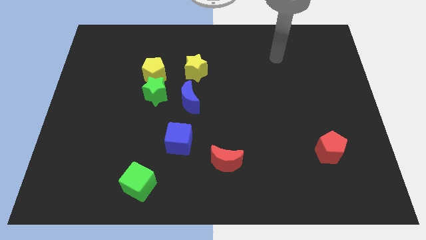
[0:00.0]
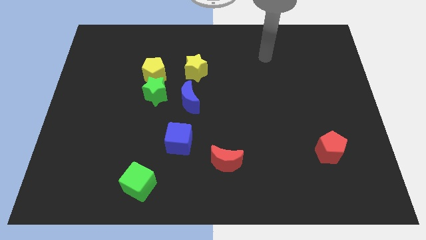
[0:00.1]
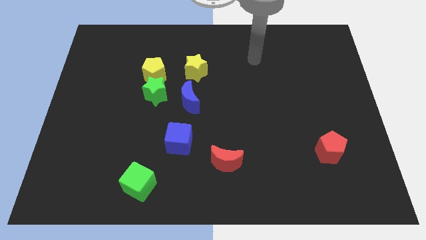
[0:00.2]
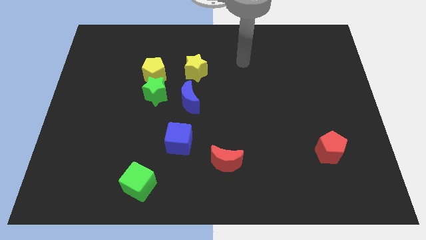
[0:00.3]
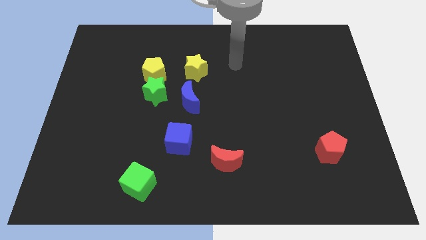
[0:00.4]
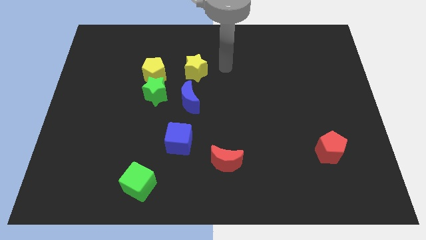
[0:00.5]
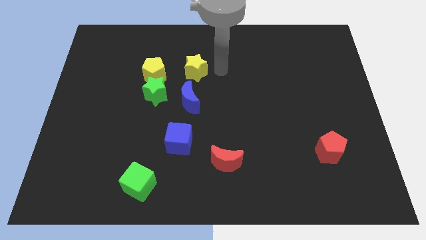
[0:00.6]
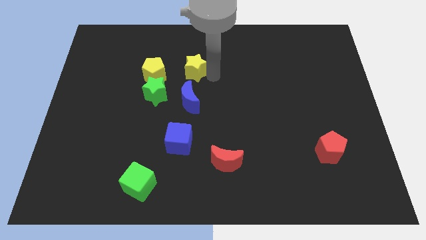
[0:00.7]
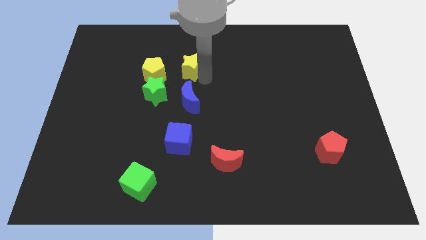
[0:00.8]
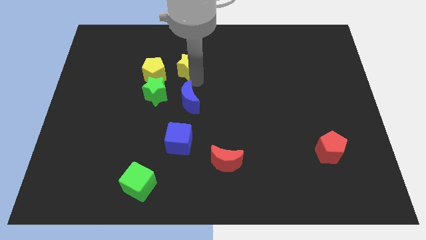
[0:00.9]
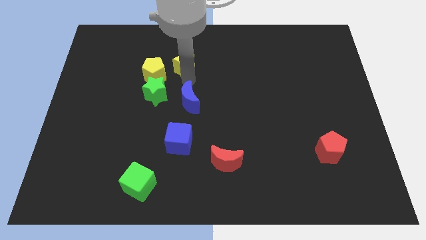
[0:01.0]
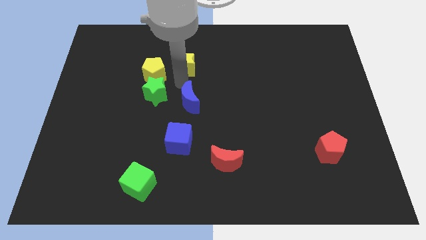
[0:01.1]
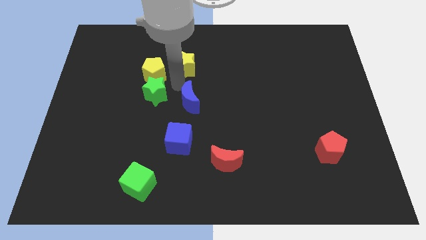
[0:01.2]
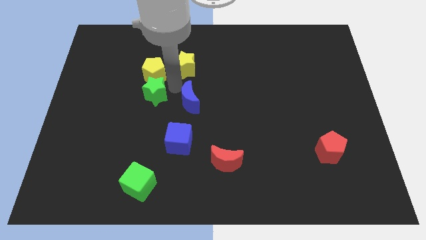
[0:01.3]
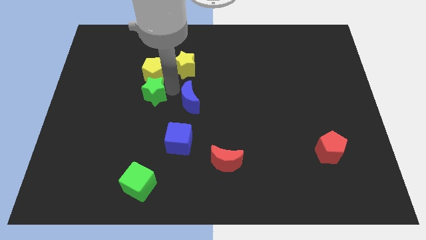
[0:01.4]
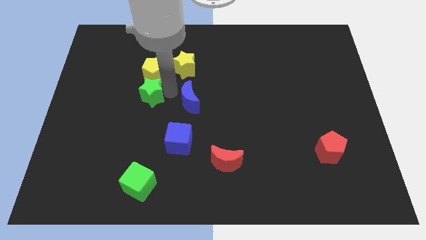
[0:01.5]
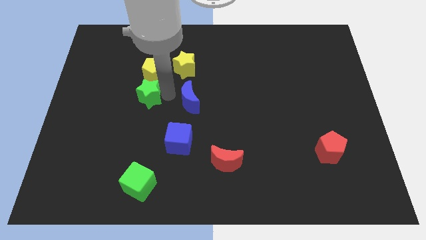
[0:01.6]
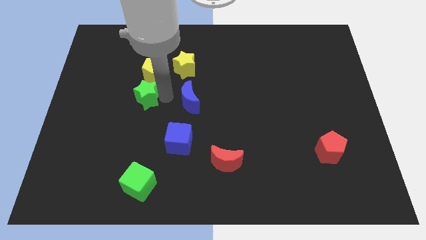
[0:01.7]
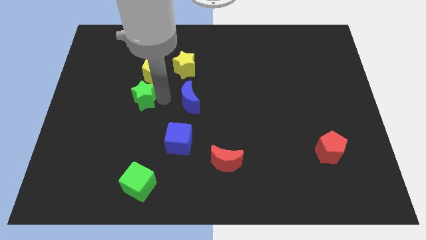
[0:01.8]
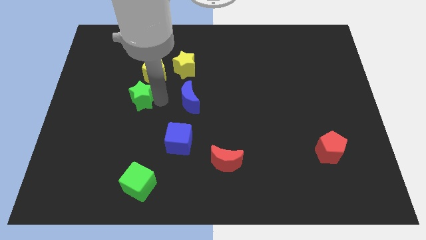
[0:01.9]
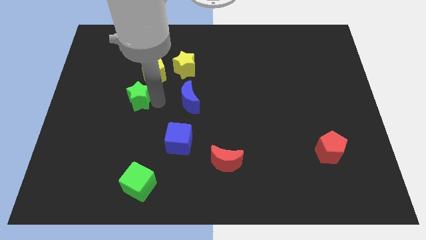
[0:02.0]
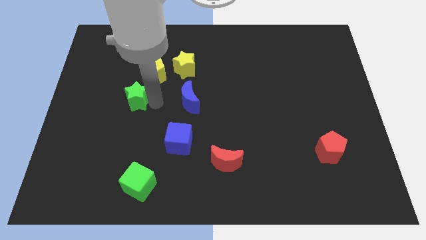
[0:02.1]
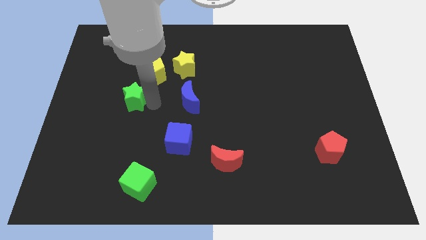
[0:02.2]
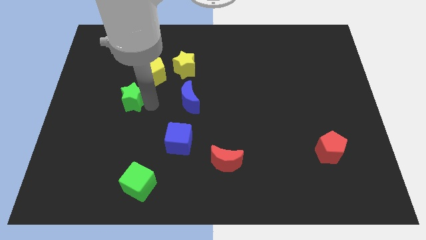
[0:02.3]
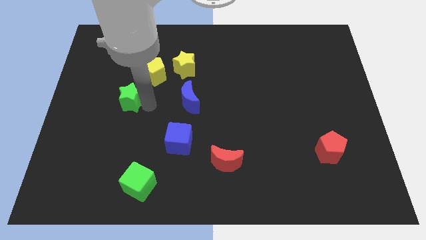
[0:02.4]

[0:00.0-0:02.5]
pull the green star apart from the yellow pentagon and blue moon

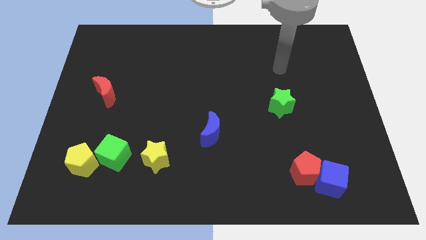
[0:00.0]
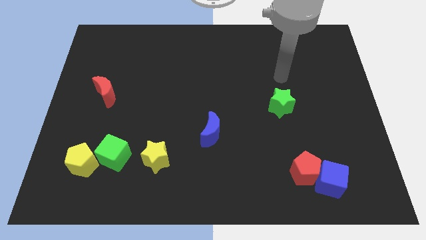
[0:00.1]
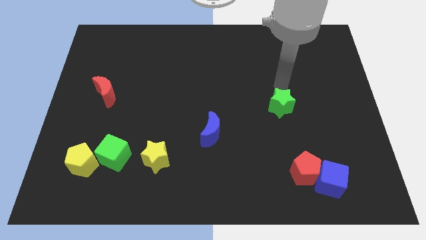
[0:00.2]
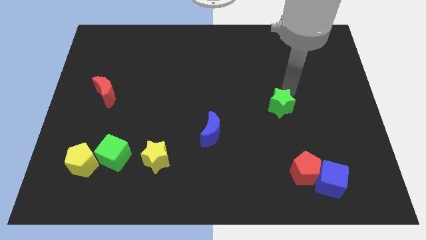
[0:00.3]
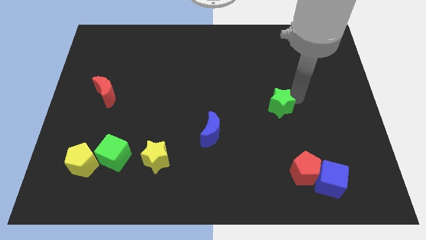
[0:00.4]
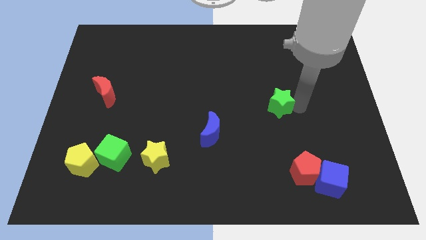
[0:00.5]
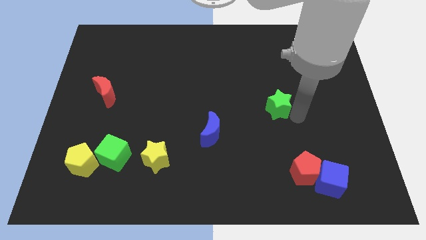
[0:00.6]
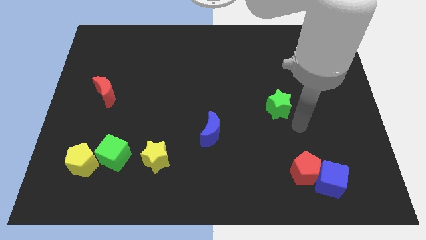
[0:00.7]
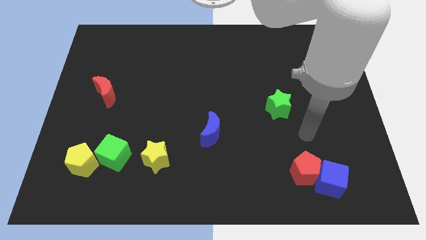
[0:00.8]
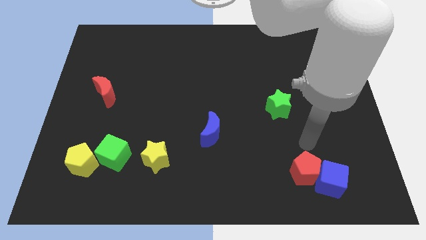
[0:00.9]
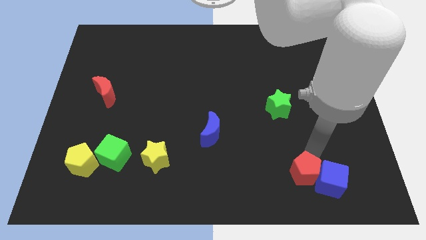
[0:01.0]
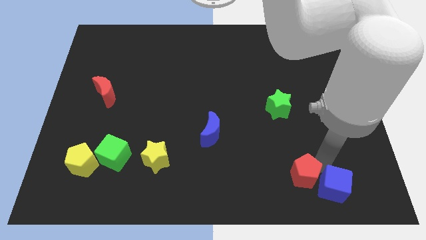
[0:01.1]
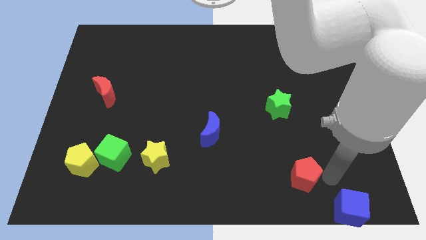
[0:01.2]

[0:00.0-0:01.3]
move the red pentagon away from the blue cube

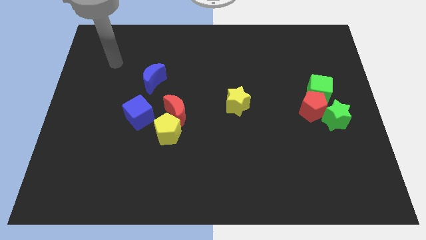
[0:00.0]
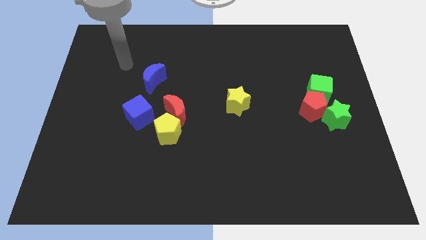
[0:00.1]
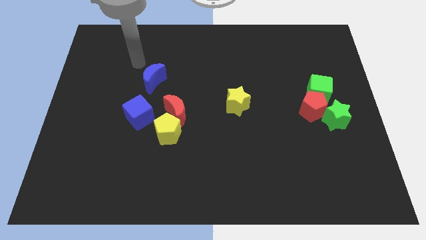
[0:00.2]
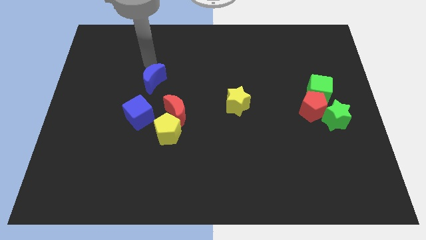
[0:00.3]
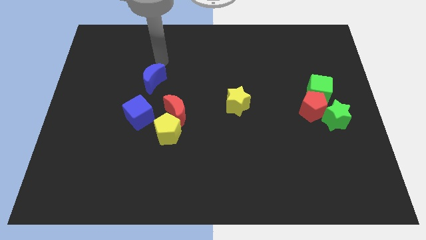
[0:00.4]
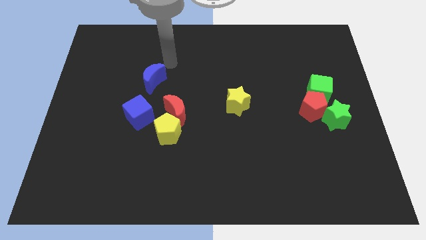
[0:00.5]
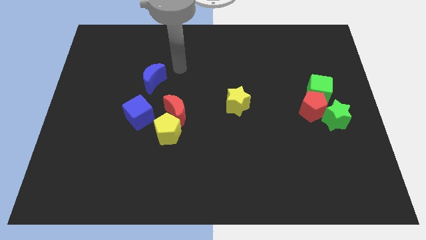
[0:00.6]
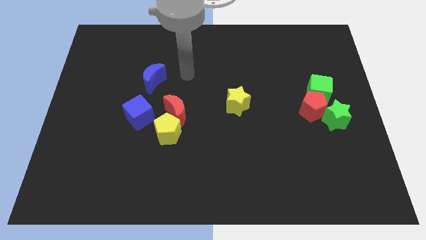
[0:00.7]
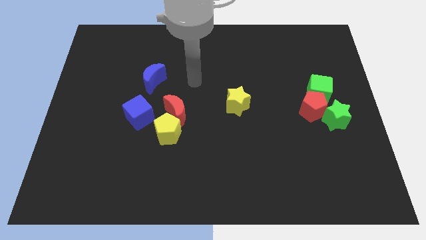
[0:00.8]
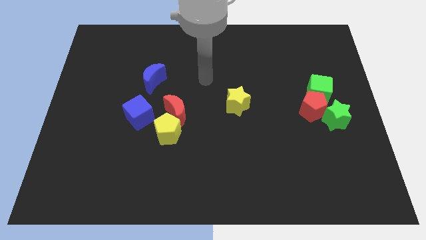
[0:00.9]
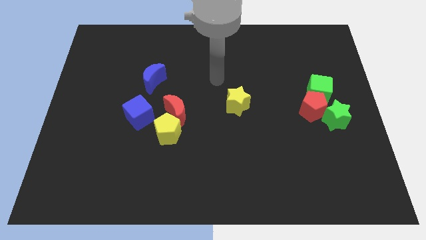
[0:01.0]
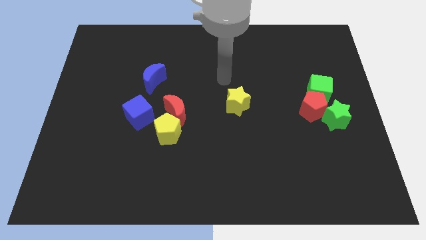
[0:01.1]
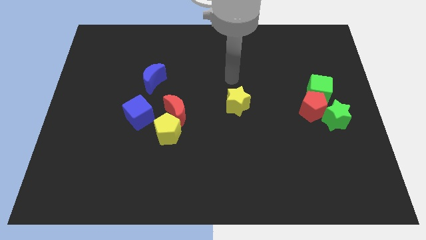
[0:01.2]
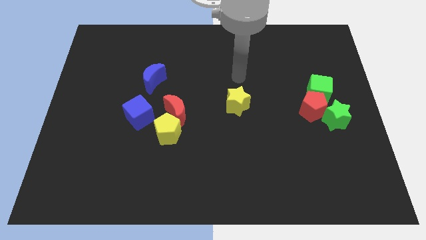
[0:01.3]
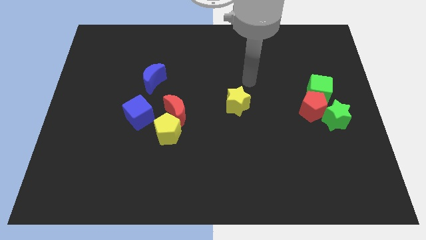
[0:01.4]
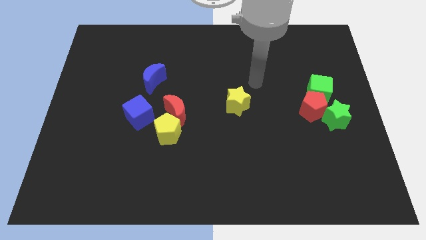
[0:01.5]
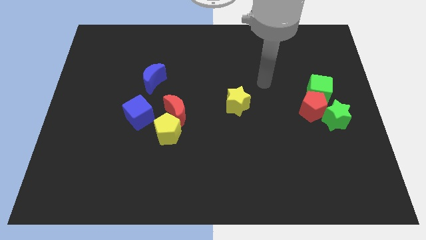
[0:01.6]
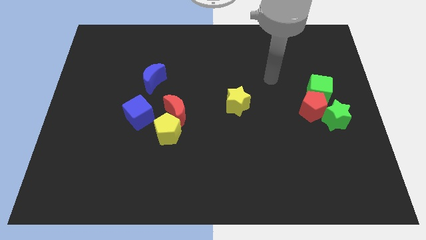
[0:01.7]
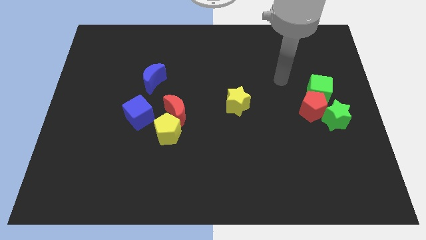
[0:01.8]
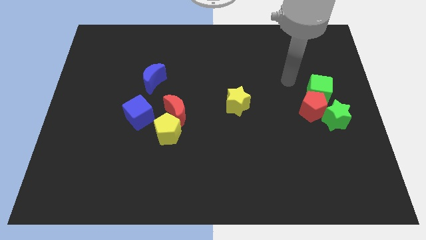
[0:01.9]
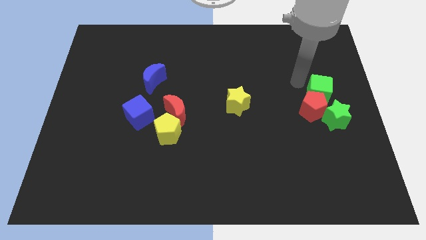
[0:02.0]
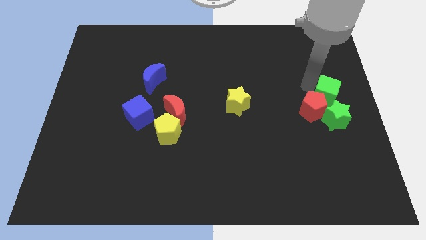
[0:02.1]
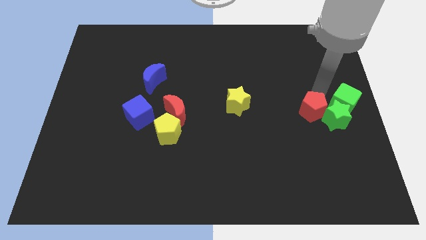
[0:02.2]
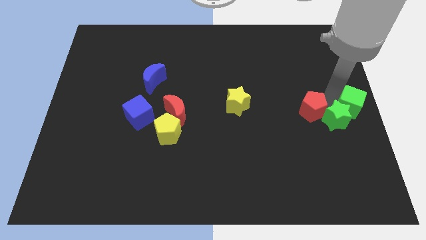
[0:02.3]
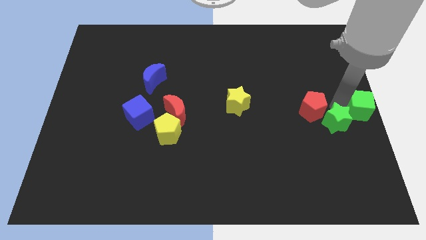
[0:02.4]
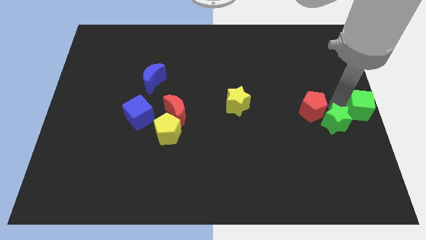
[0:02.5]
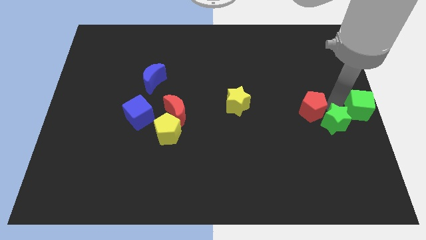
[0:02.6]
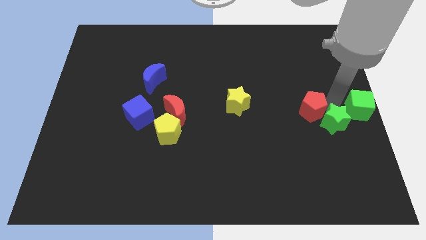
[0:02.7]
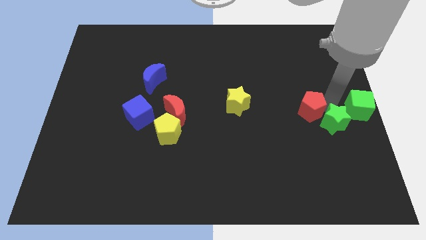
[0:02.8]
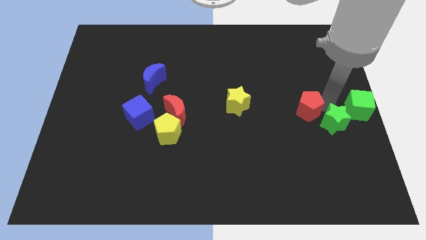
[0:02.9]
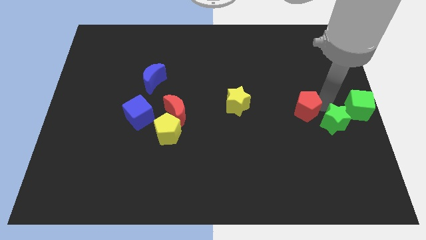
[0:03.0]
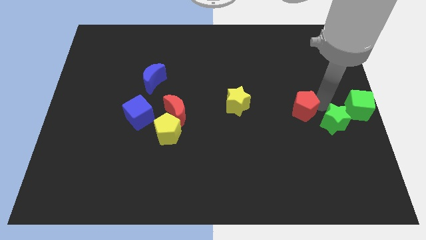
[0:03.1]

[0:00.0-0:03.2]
move the red pentagon away from the green cube and green star

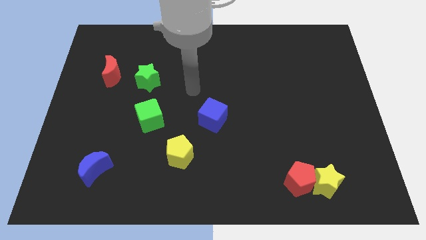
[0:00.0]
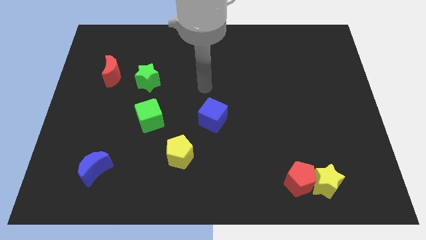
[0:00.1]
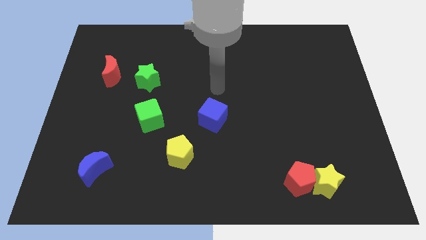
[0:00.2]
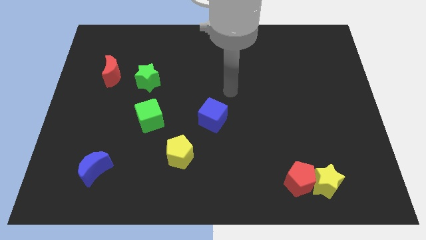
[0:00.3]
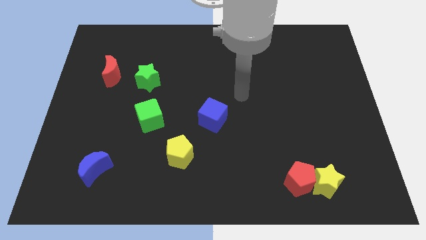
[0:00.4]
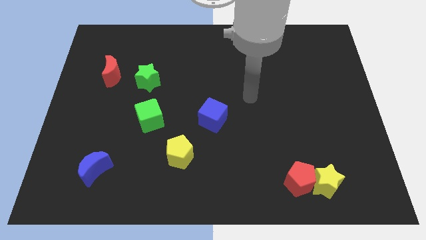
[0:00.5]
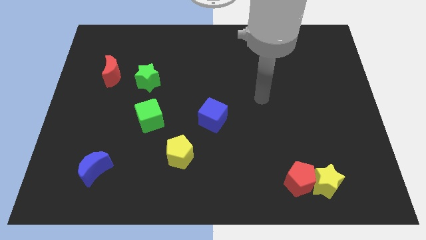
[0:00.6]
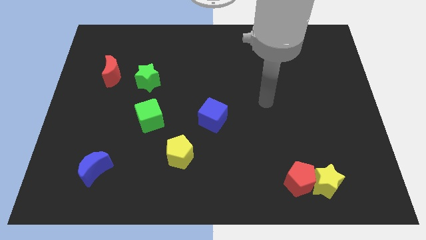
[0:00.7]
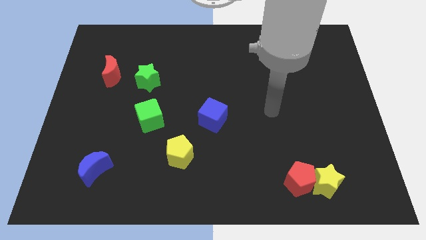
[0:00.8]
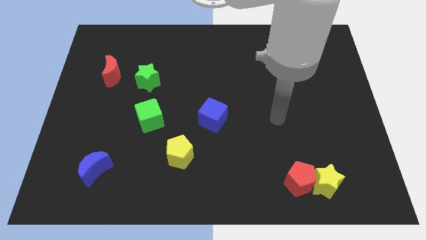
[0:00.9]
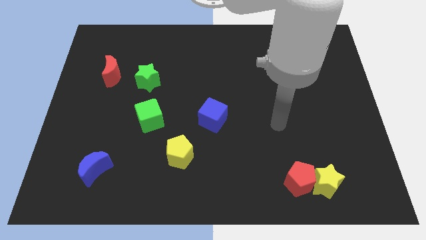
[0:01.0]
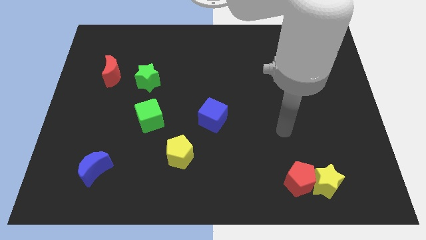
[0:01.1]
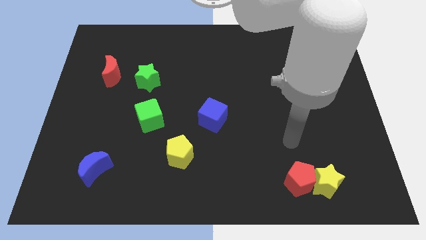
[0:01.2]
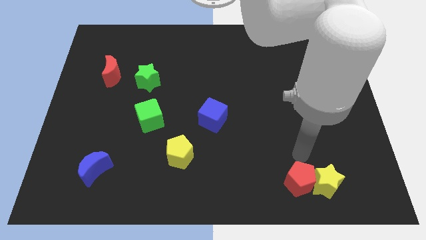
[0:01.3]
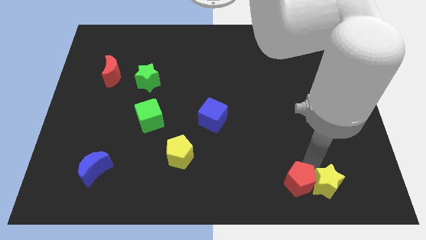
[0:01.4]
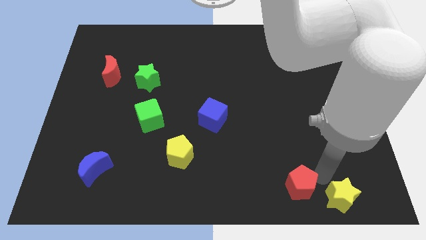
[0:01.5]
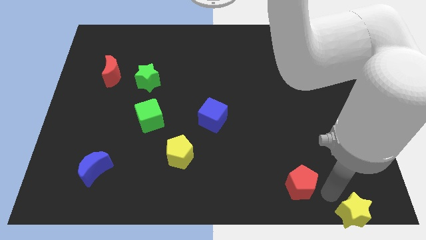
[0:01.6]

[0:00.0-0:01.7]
pull the red pentagon apart from the yellow star

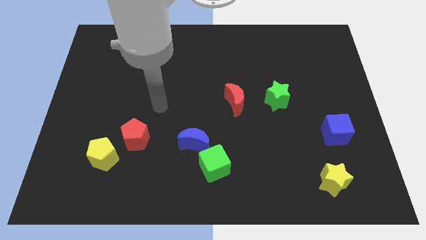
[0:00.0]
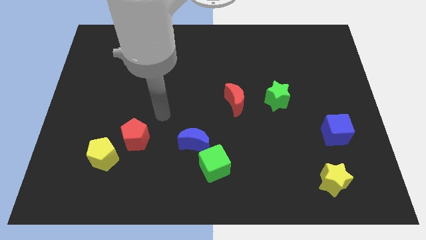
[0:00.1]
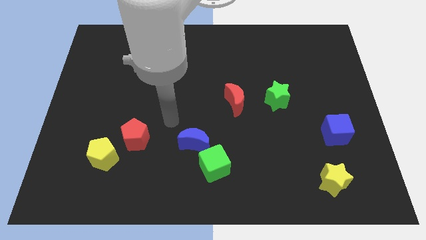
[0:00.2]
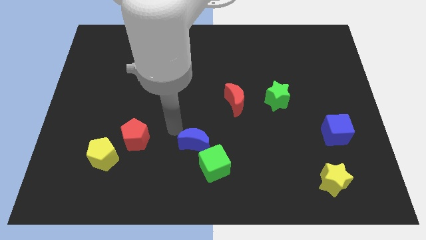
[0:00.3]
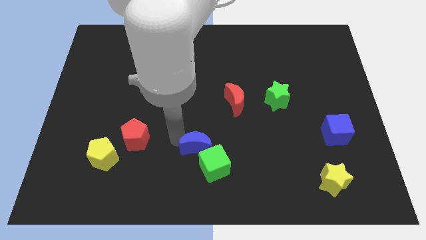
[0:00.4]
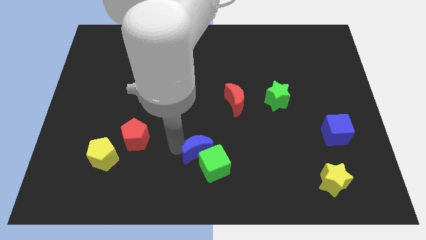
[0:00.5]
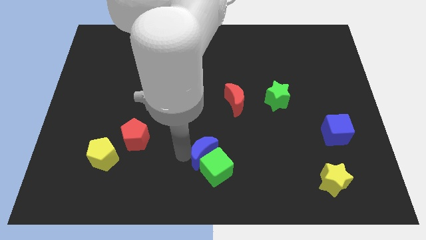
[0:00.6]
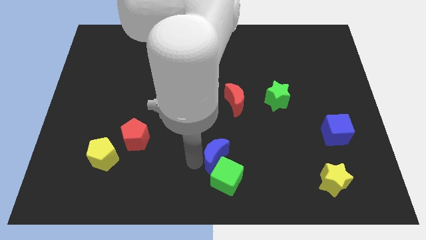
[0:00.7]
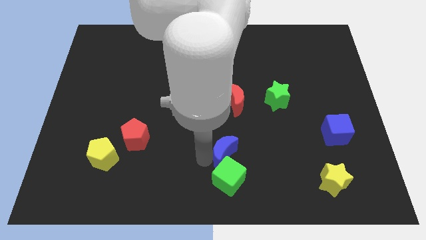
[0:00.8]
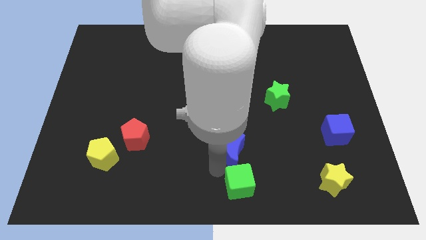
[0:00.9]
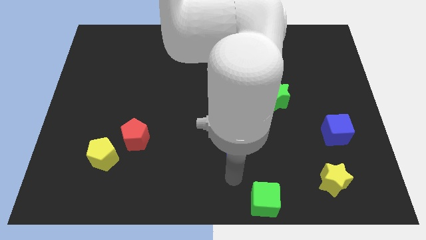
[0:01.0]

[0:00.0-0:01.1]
move the blue moon away from the green cube
